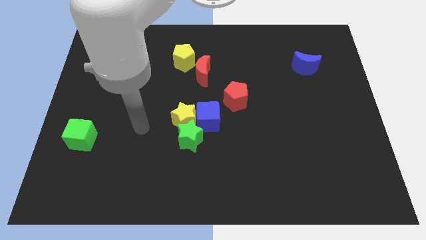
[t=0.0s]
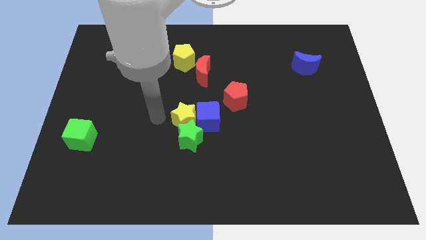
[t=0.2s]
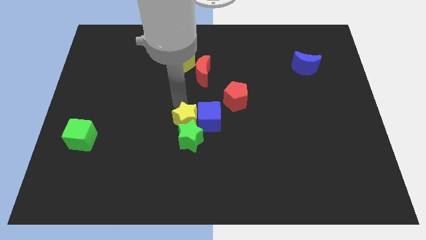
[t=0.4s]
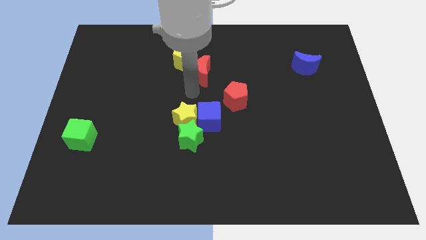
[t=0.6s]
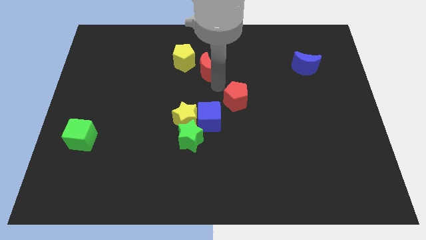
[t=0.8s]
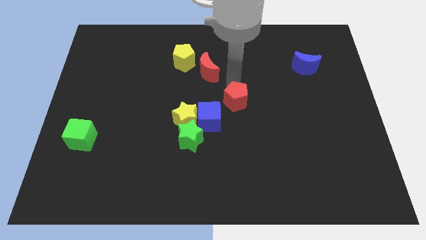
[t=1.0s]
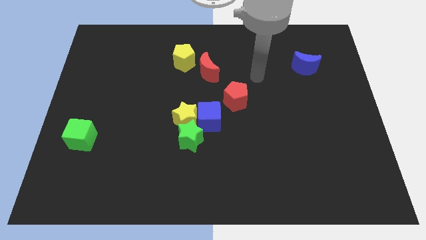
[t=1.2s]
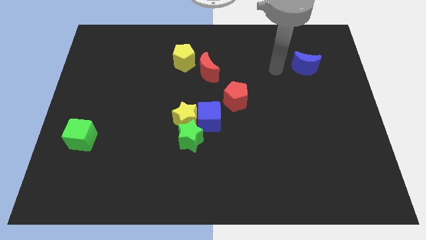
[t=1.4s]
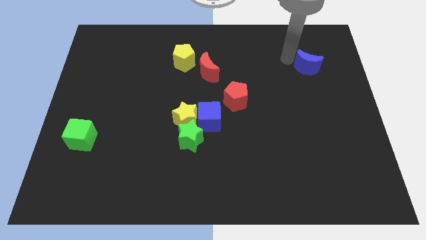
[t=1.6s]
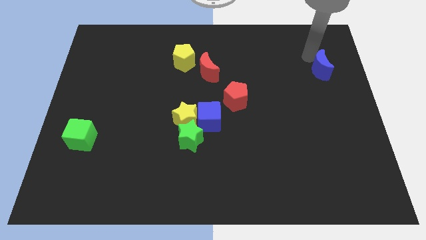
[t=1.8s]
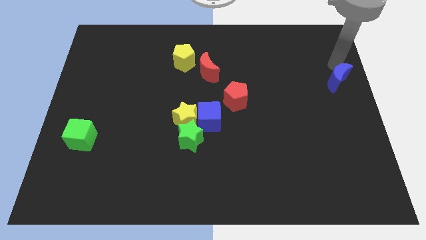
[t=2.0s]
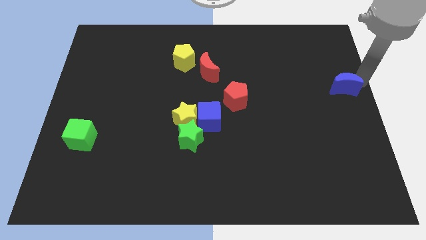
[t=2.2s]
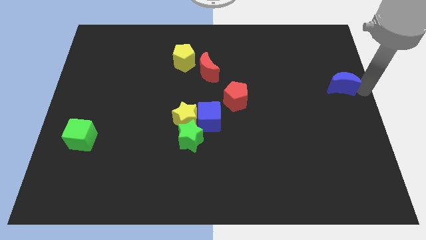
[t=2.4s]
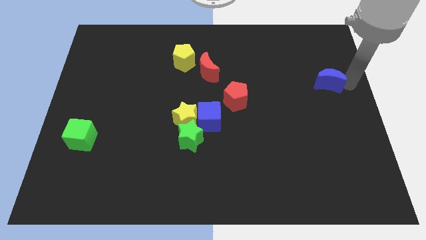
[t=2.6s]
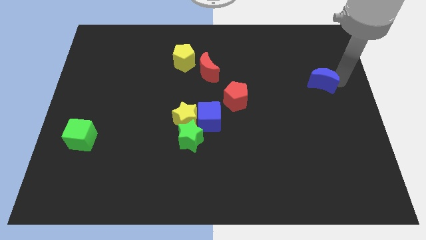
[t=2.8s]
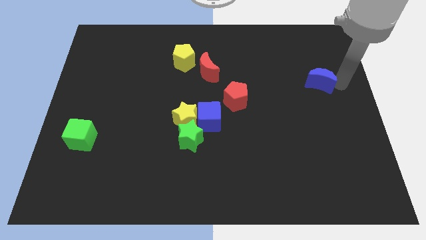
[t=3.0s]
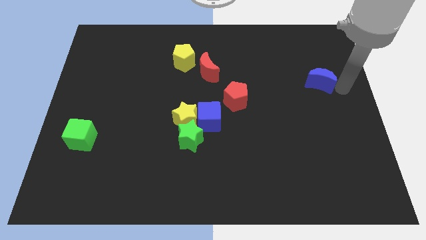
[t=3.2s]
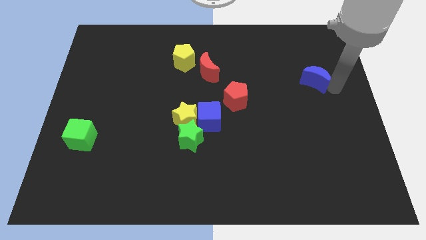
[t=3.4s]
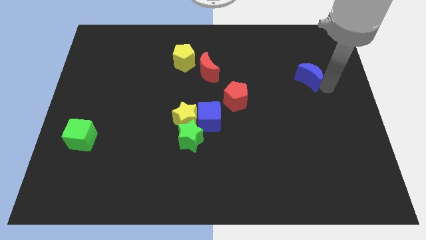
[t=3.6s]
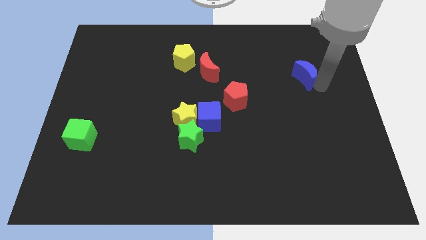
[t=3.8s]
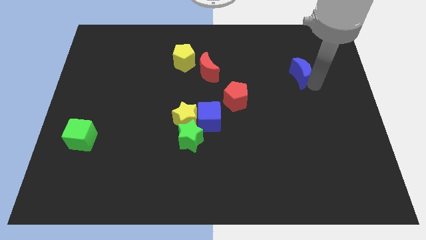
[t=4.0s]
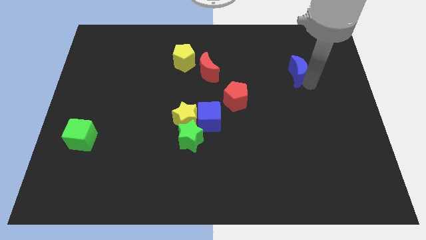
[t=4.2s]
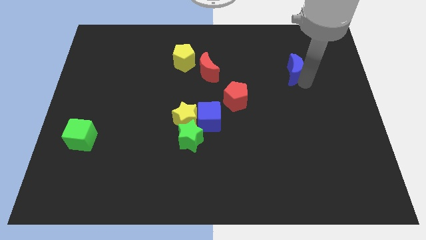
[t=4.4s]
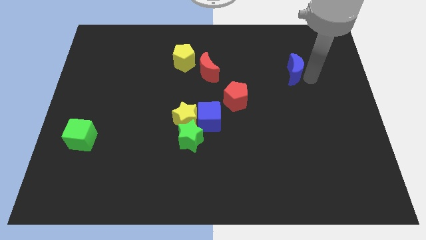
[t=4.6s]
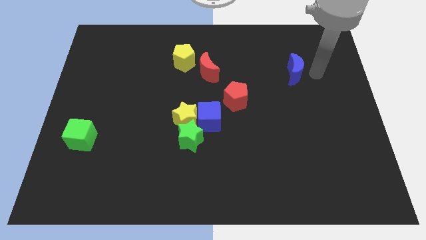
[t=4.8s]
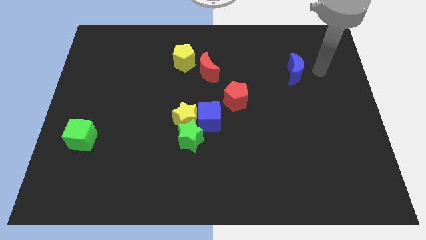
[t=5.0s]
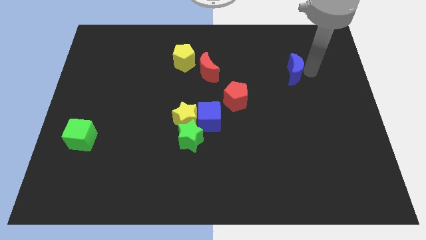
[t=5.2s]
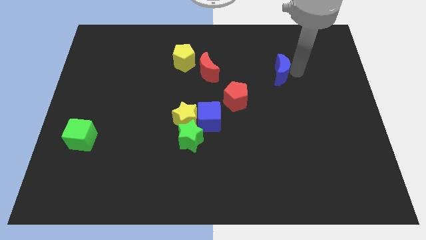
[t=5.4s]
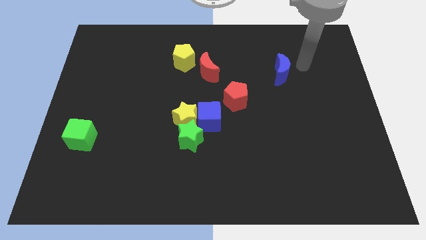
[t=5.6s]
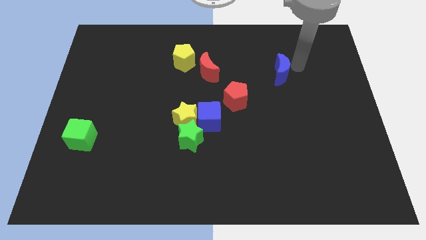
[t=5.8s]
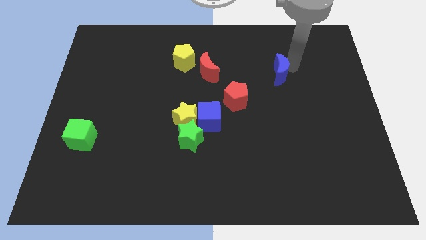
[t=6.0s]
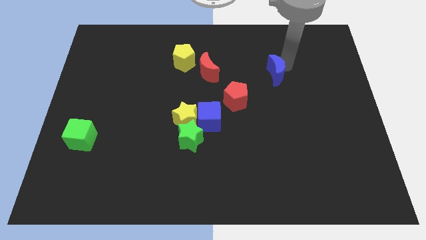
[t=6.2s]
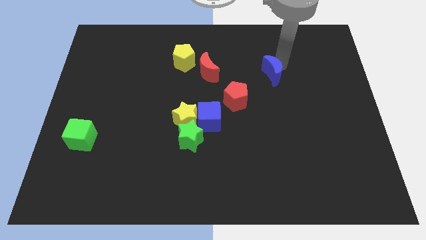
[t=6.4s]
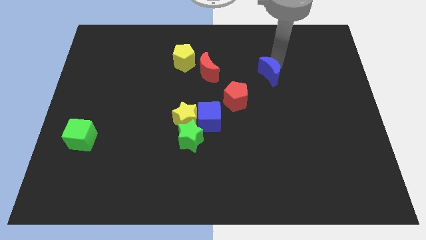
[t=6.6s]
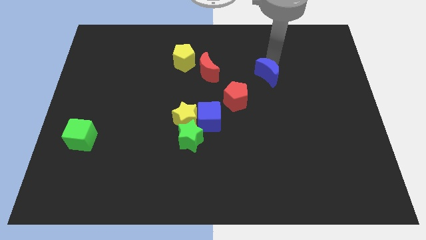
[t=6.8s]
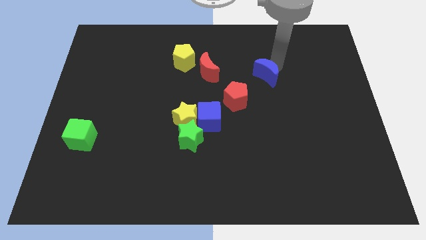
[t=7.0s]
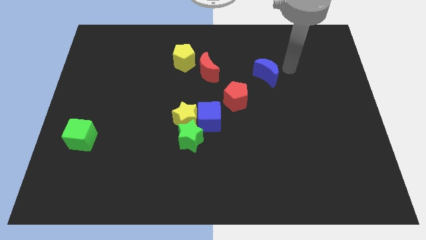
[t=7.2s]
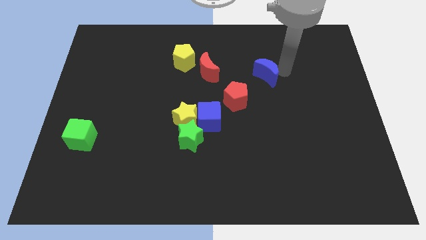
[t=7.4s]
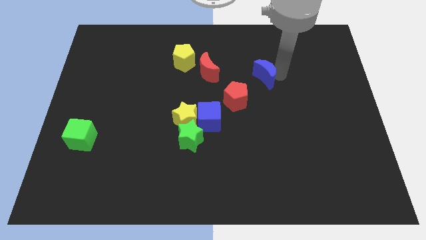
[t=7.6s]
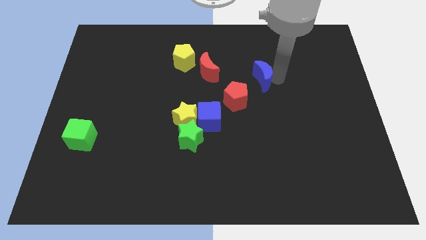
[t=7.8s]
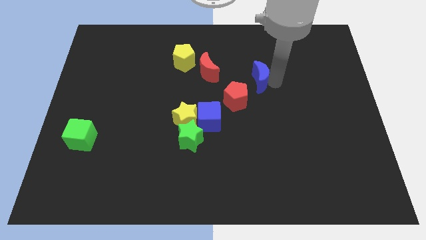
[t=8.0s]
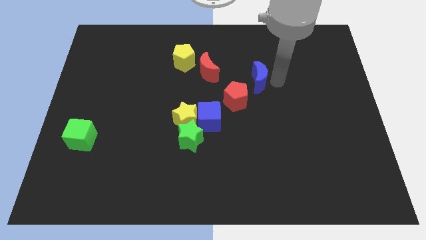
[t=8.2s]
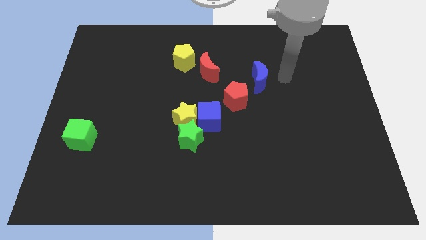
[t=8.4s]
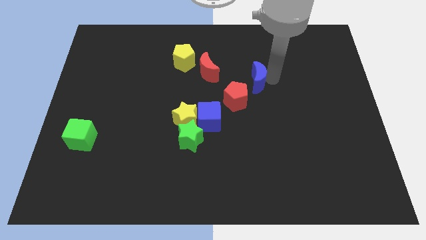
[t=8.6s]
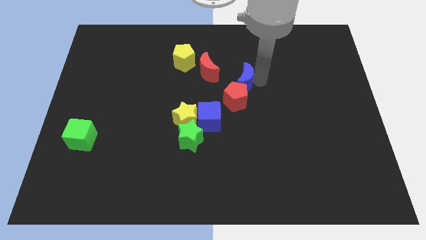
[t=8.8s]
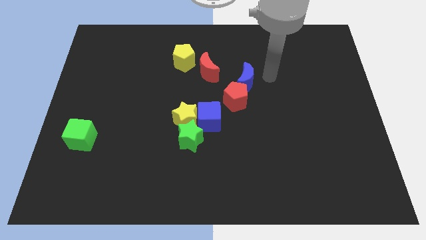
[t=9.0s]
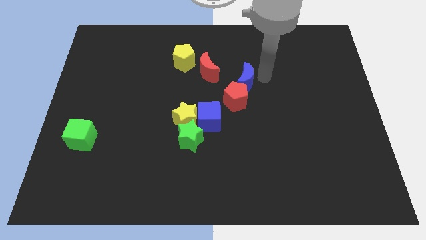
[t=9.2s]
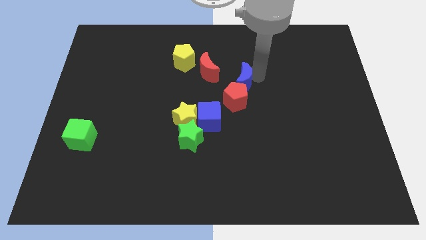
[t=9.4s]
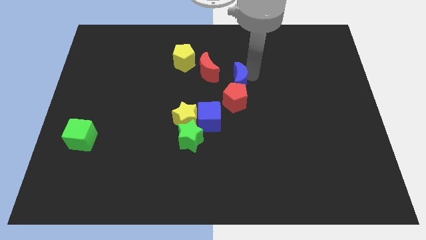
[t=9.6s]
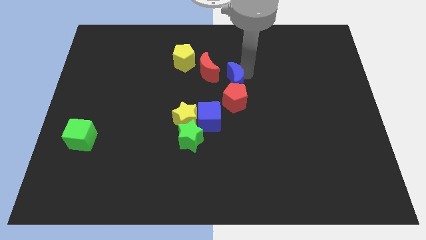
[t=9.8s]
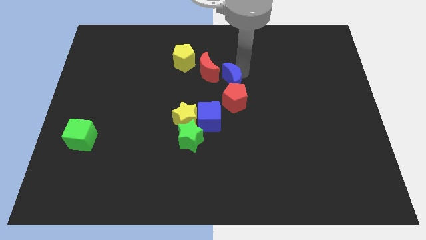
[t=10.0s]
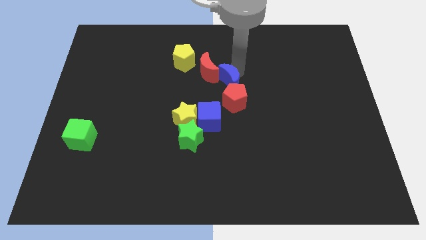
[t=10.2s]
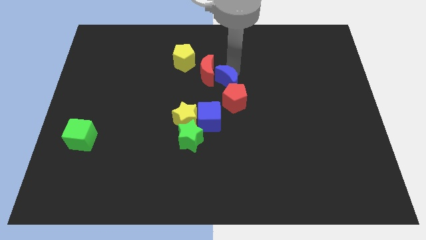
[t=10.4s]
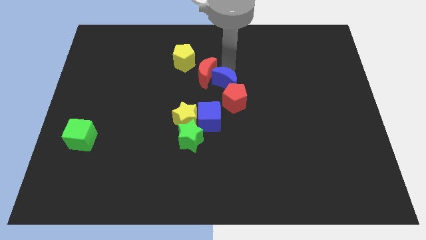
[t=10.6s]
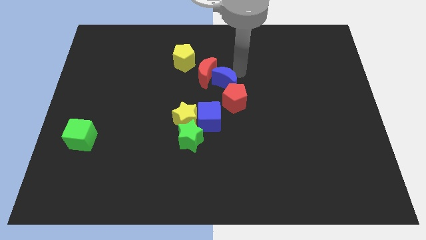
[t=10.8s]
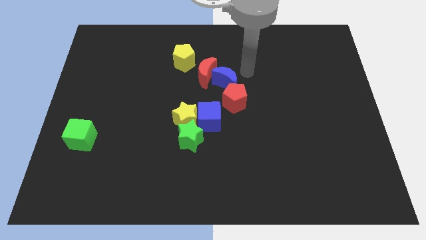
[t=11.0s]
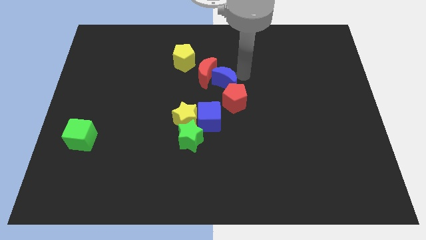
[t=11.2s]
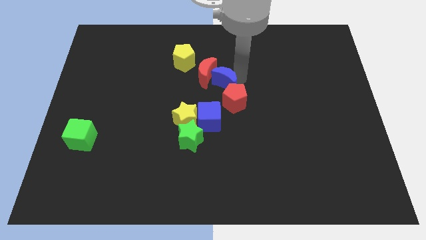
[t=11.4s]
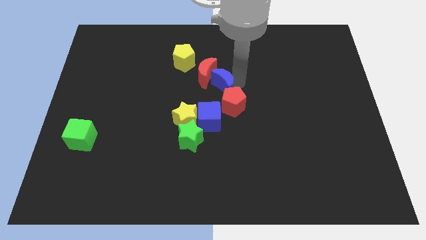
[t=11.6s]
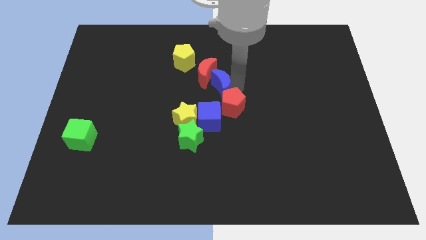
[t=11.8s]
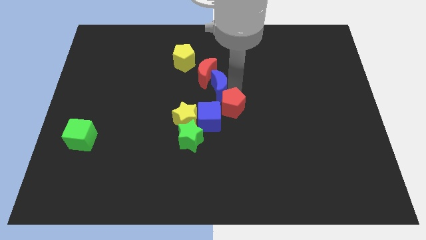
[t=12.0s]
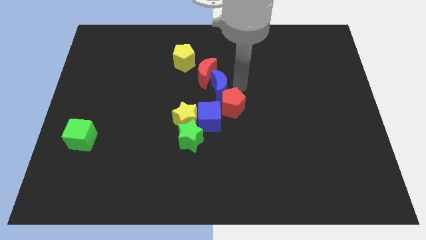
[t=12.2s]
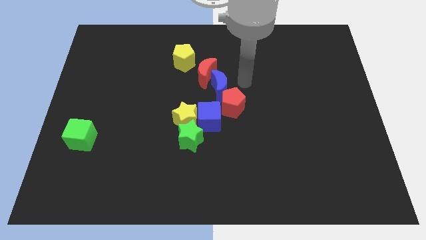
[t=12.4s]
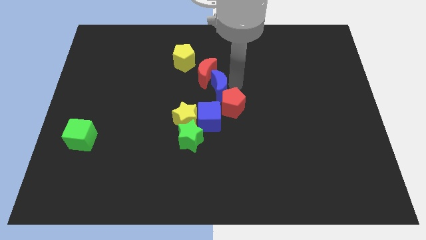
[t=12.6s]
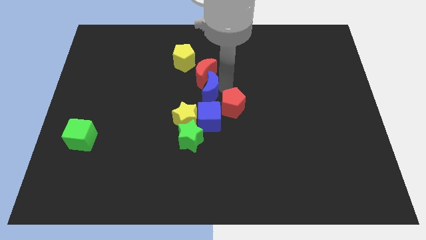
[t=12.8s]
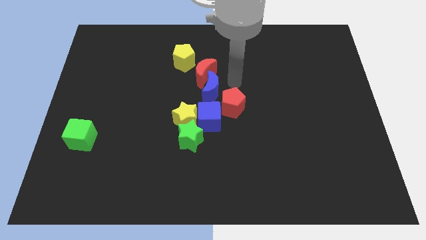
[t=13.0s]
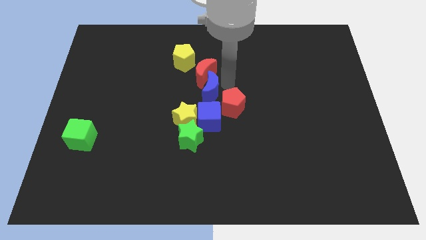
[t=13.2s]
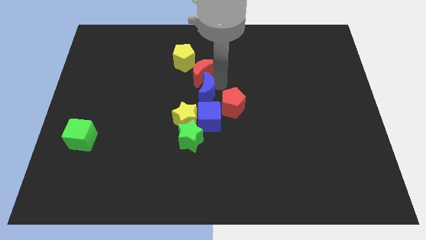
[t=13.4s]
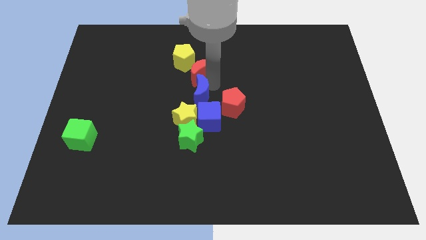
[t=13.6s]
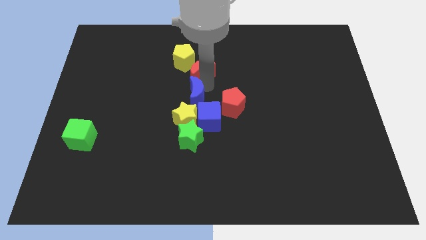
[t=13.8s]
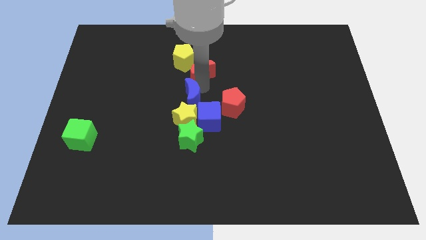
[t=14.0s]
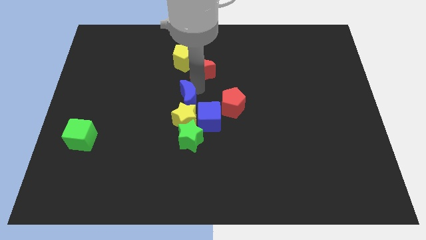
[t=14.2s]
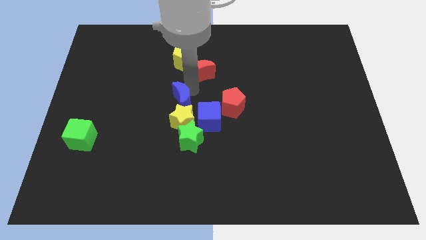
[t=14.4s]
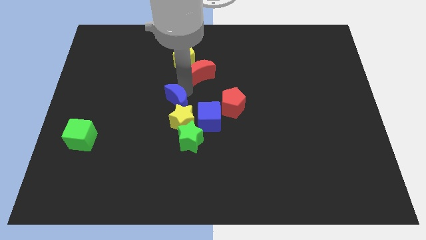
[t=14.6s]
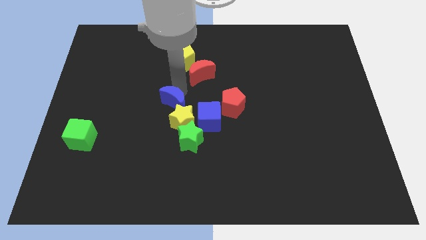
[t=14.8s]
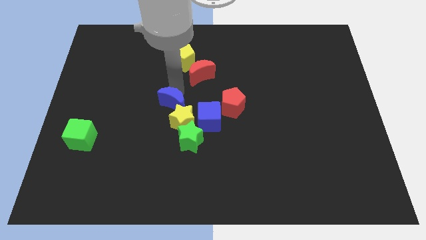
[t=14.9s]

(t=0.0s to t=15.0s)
move the blue moon to the top left of the green star
